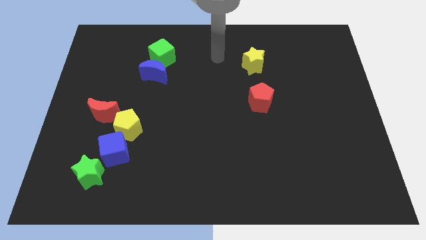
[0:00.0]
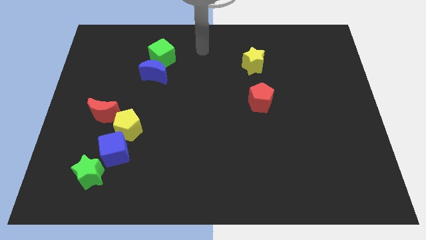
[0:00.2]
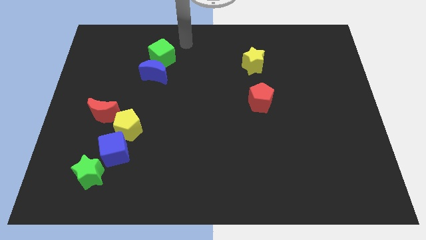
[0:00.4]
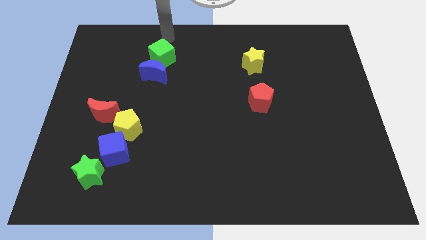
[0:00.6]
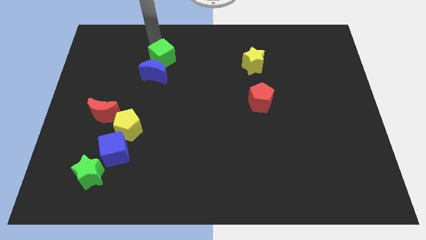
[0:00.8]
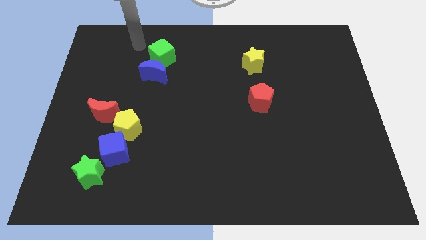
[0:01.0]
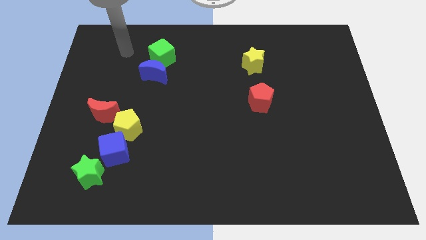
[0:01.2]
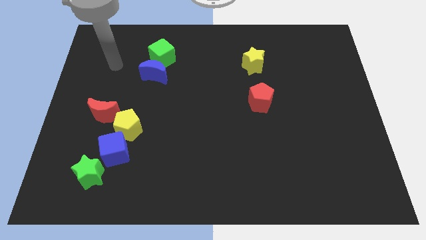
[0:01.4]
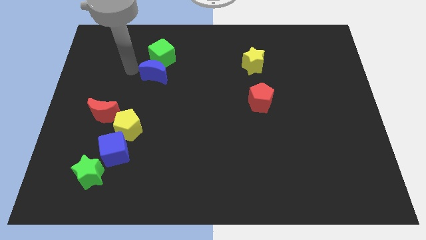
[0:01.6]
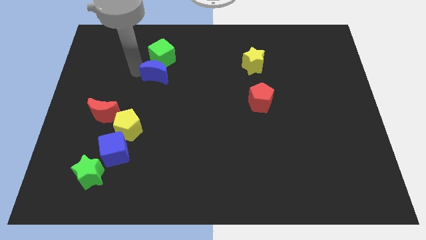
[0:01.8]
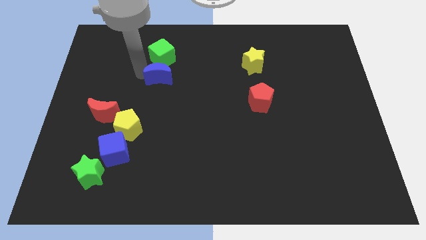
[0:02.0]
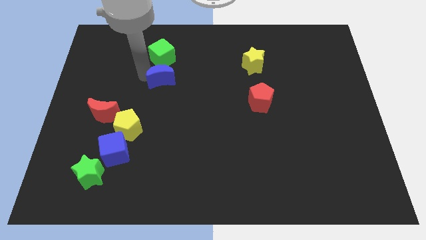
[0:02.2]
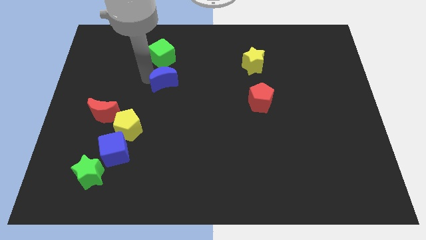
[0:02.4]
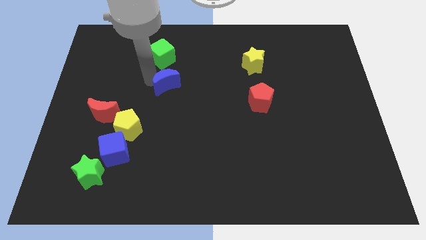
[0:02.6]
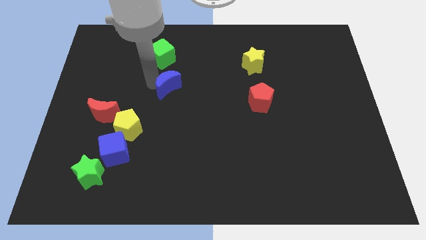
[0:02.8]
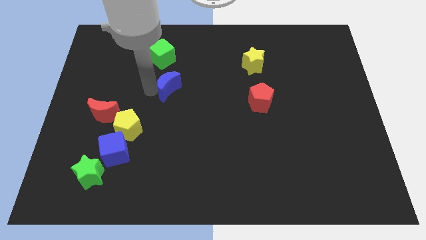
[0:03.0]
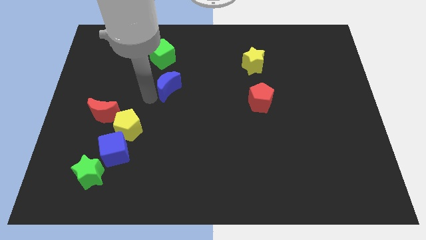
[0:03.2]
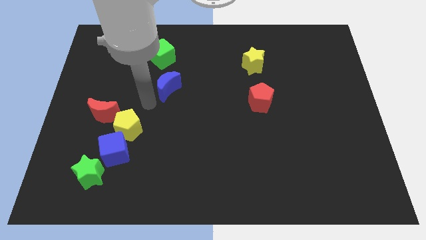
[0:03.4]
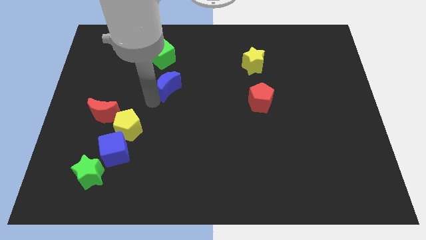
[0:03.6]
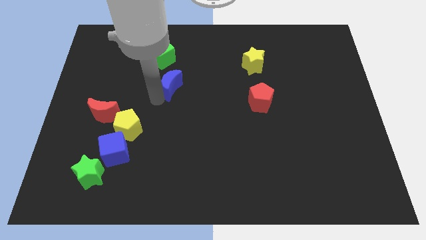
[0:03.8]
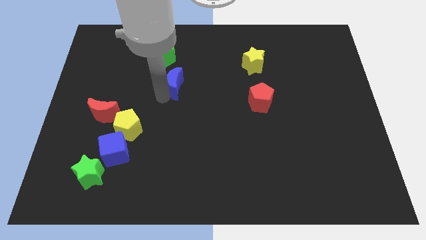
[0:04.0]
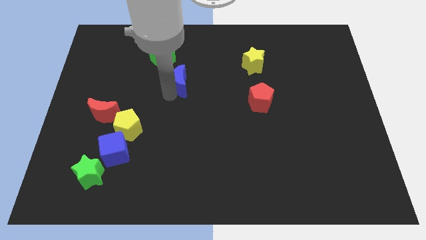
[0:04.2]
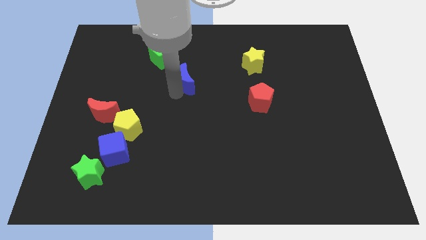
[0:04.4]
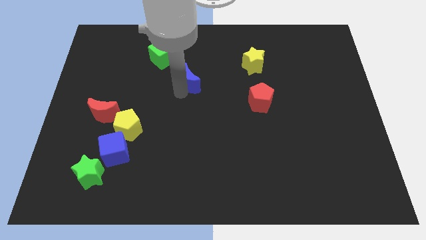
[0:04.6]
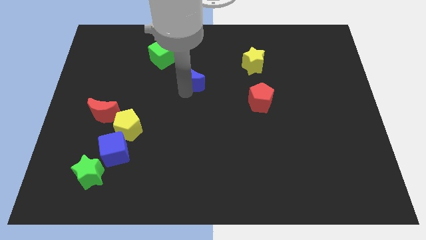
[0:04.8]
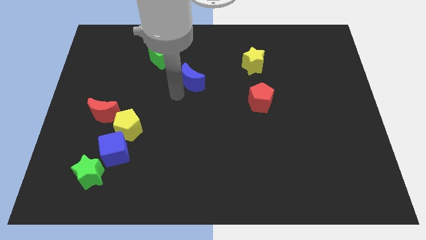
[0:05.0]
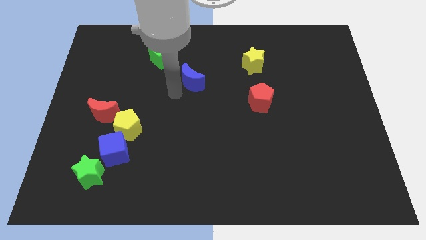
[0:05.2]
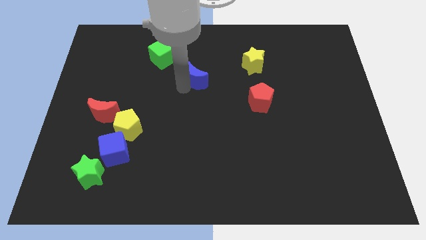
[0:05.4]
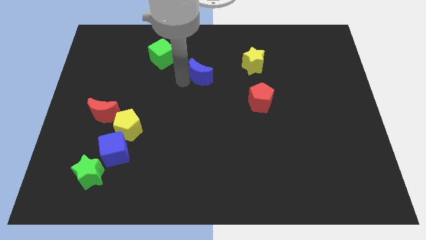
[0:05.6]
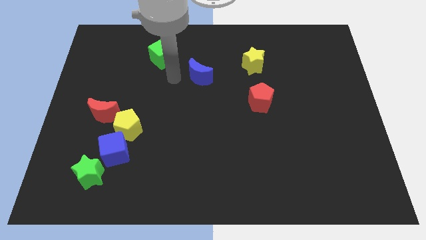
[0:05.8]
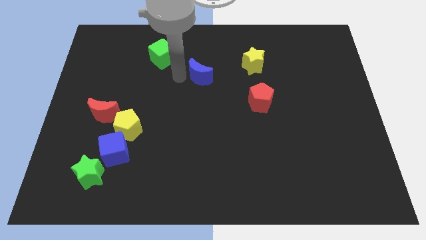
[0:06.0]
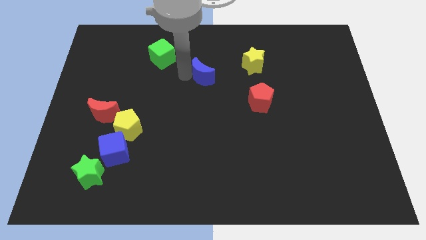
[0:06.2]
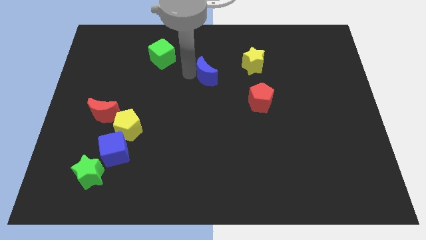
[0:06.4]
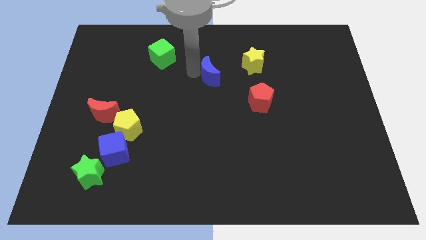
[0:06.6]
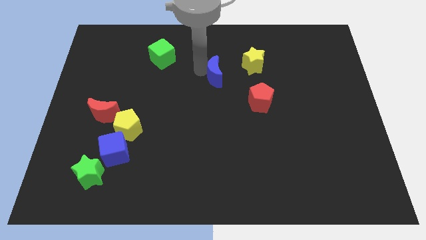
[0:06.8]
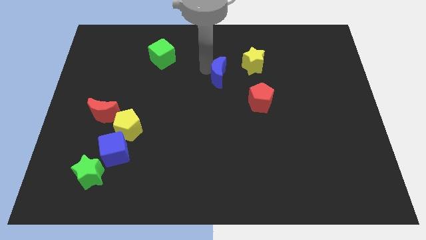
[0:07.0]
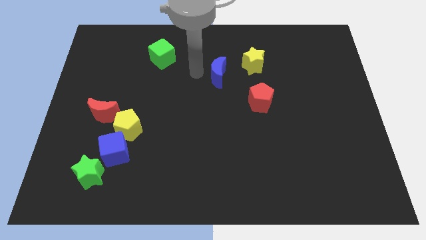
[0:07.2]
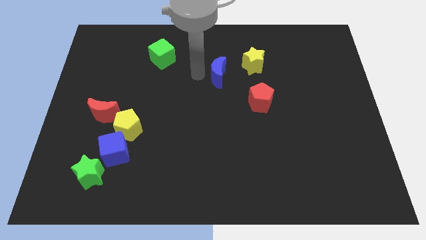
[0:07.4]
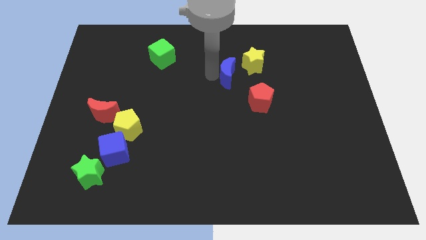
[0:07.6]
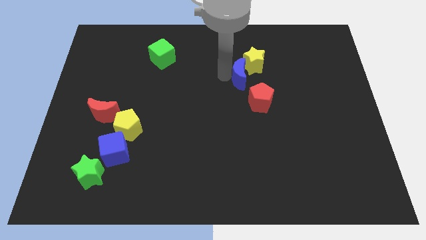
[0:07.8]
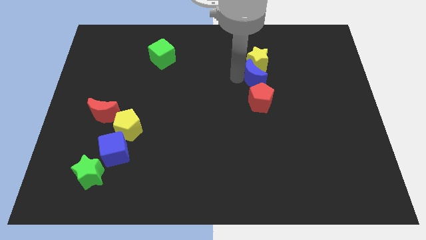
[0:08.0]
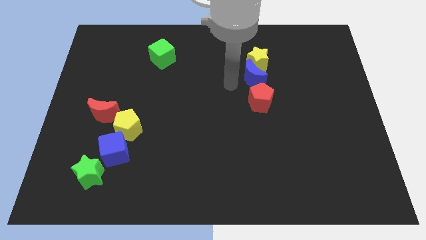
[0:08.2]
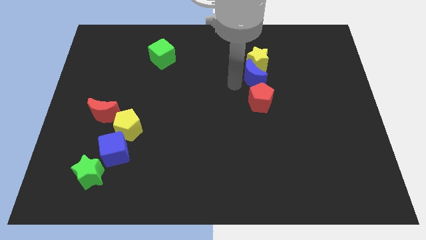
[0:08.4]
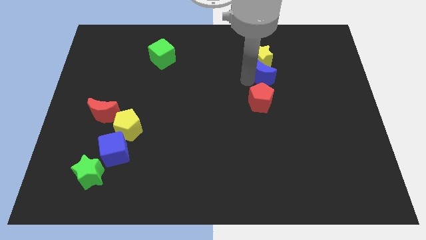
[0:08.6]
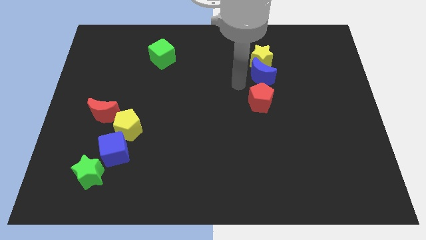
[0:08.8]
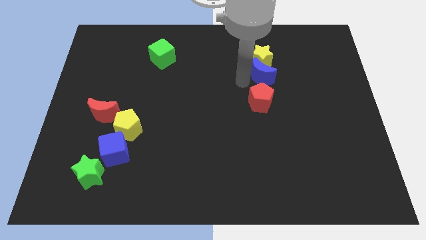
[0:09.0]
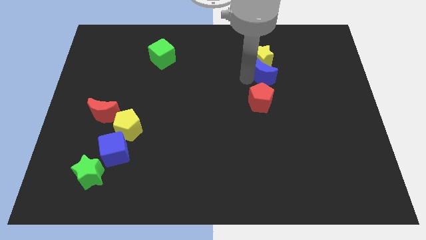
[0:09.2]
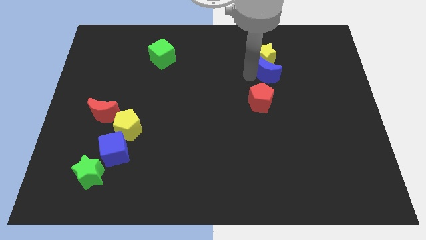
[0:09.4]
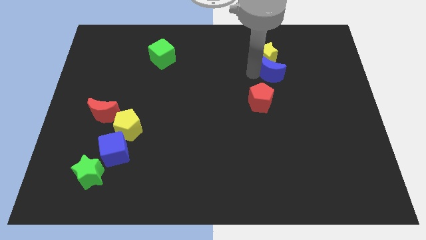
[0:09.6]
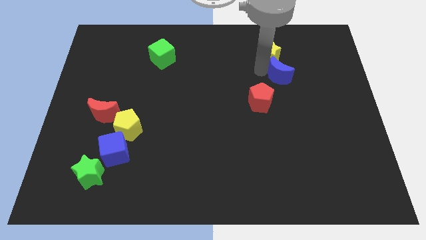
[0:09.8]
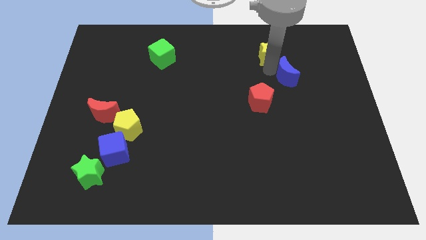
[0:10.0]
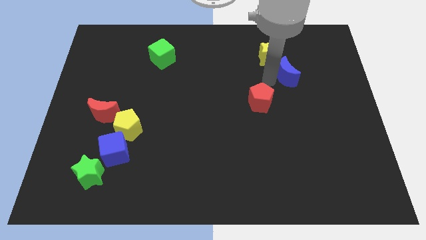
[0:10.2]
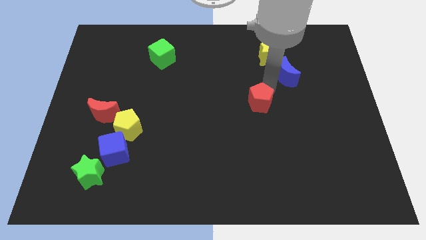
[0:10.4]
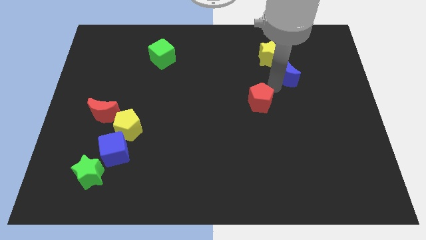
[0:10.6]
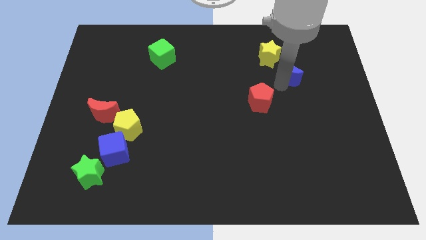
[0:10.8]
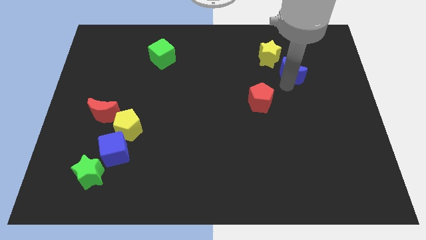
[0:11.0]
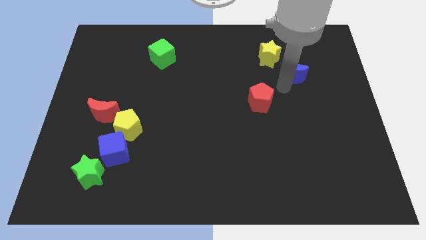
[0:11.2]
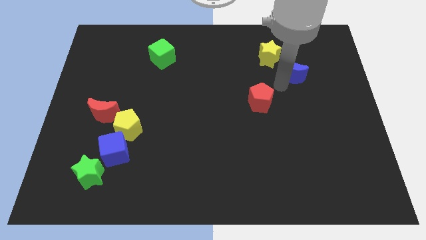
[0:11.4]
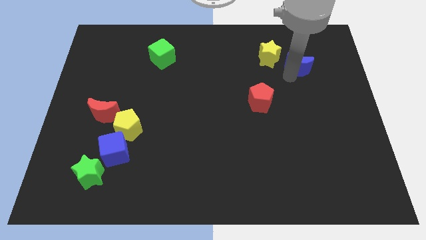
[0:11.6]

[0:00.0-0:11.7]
slide the blue moon to the right of the yellow star

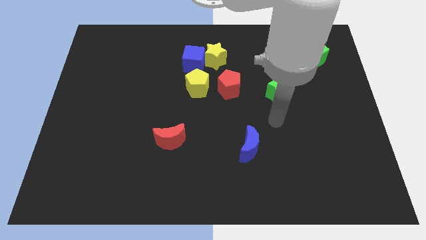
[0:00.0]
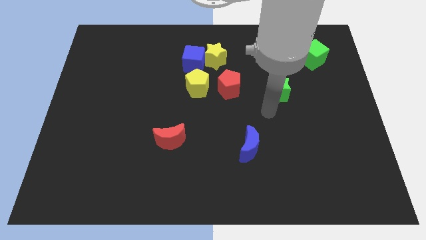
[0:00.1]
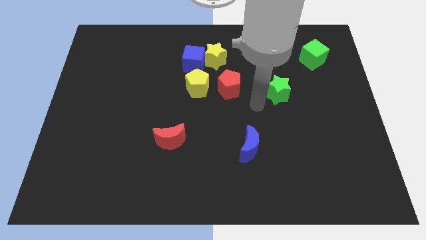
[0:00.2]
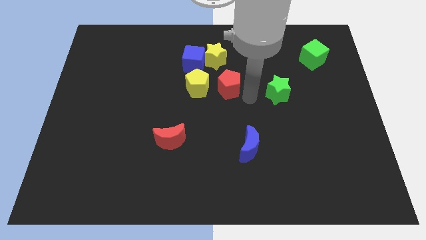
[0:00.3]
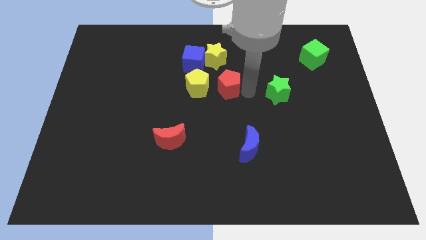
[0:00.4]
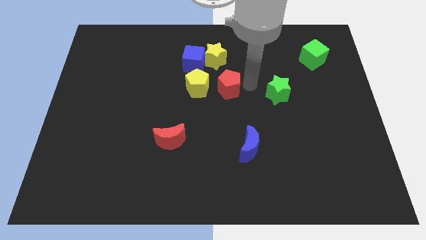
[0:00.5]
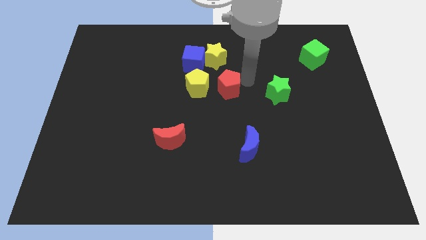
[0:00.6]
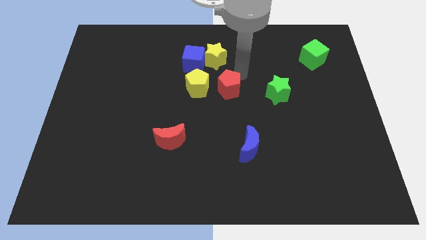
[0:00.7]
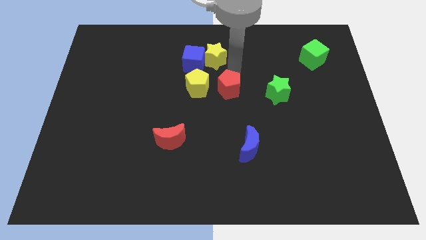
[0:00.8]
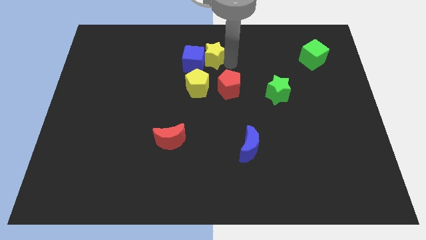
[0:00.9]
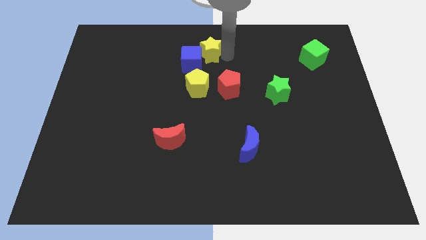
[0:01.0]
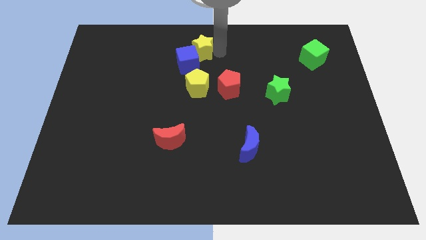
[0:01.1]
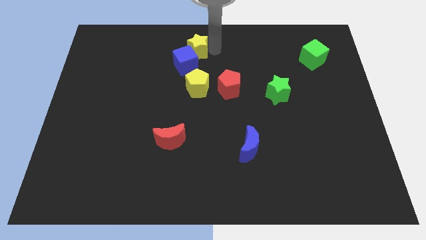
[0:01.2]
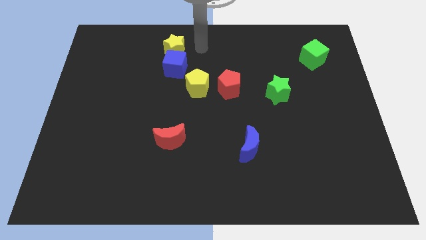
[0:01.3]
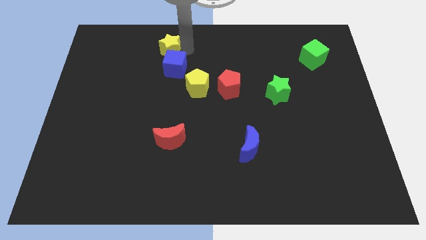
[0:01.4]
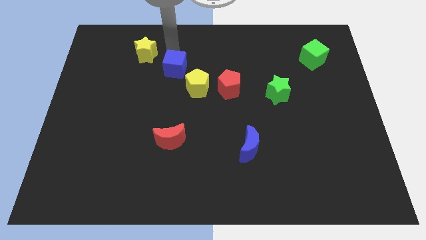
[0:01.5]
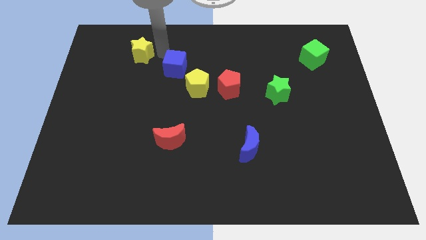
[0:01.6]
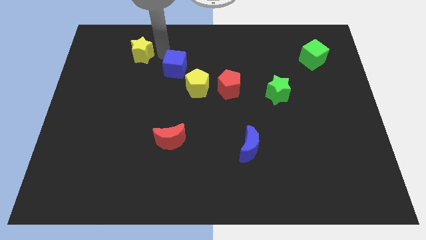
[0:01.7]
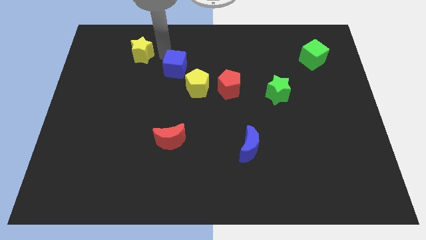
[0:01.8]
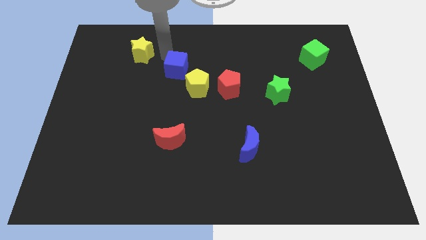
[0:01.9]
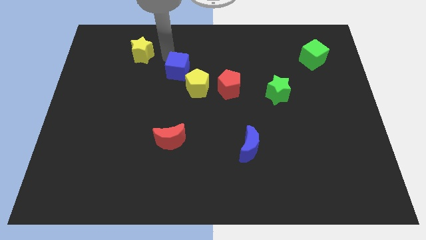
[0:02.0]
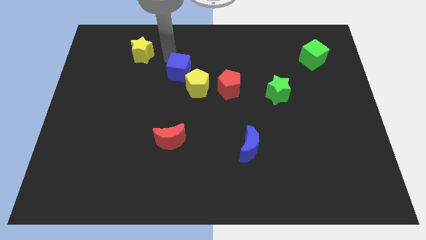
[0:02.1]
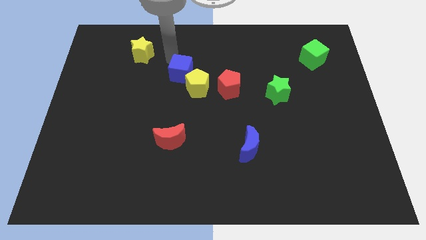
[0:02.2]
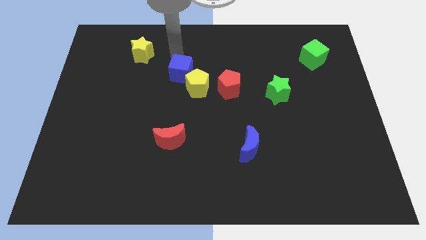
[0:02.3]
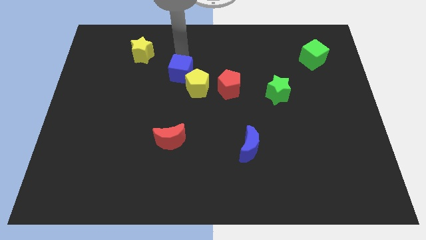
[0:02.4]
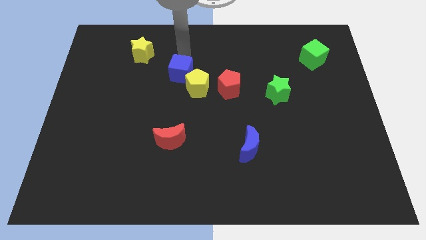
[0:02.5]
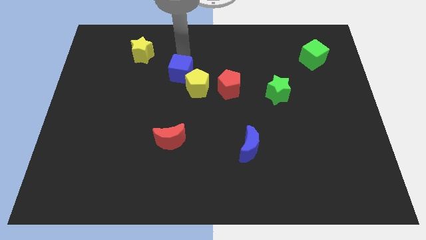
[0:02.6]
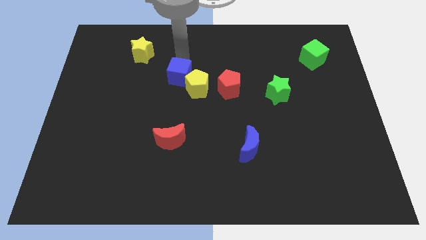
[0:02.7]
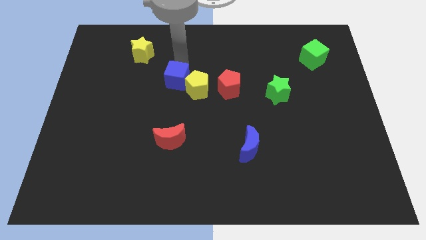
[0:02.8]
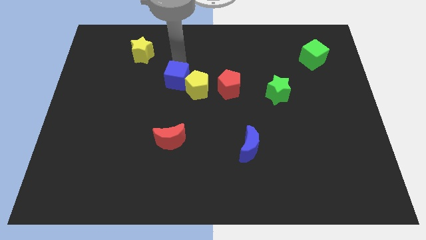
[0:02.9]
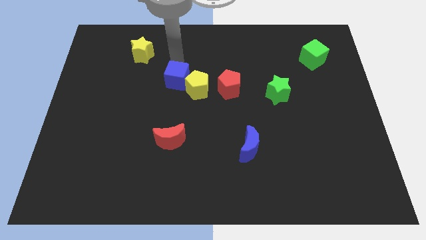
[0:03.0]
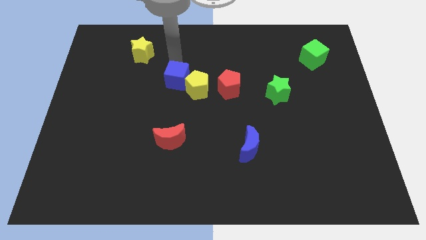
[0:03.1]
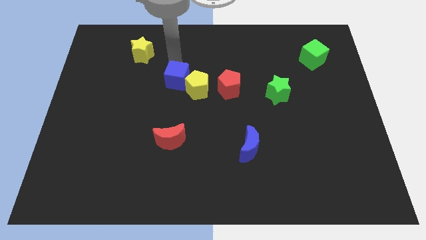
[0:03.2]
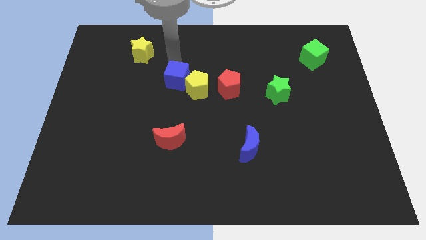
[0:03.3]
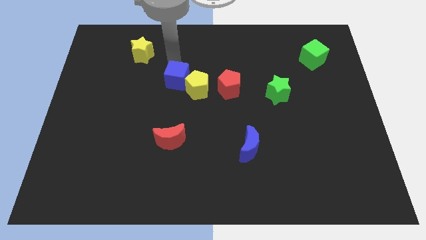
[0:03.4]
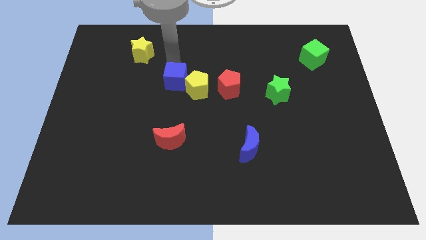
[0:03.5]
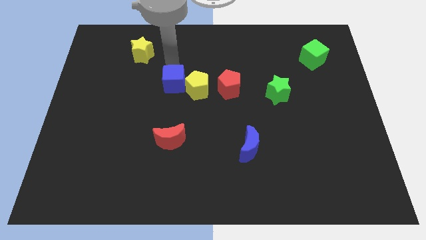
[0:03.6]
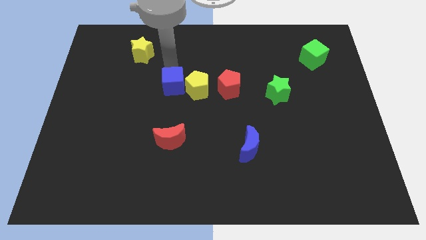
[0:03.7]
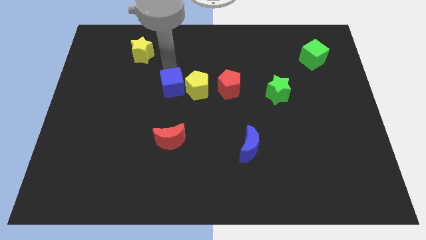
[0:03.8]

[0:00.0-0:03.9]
push the blue cube to the bottom left side of the yellow pentagon
